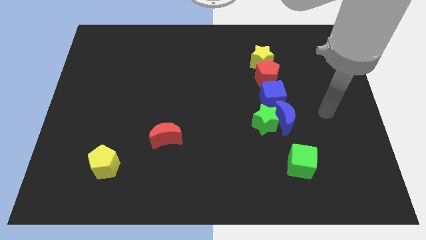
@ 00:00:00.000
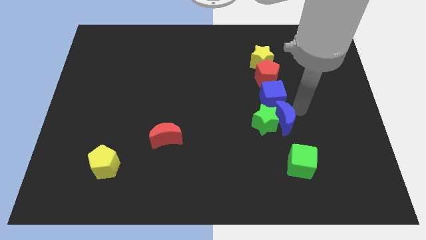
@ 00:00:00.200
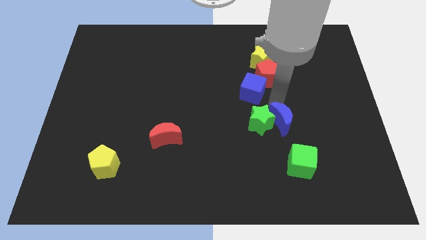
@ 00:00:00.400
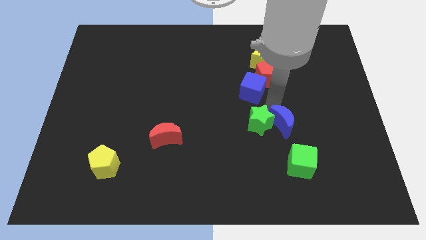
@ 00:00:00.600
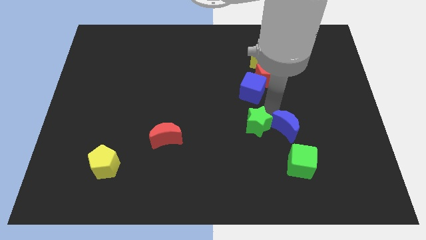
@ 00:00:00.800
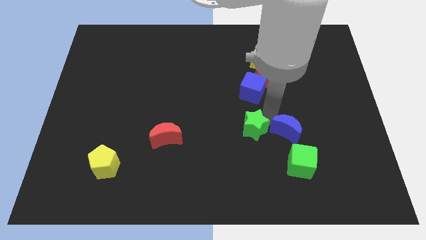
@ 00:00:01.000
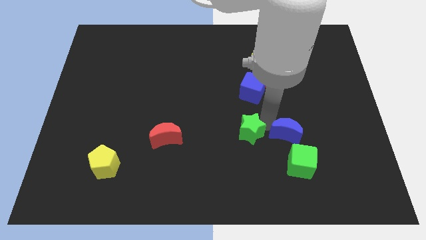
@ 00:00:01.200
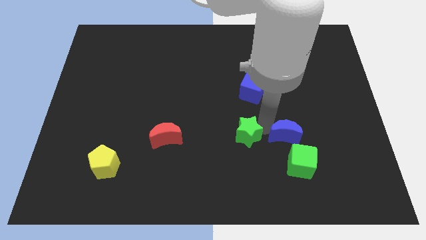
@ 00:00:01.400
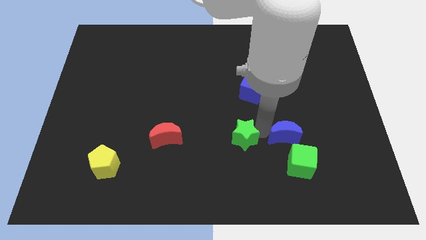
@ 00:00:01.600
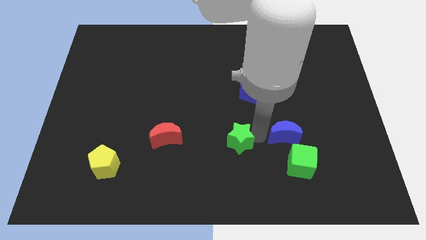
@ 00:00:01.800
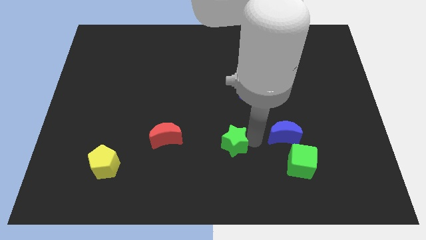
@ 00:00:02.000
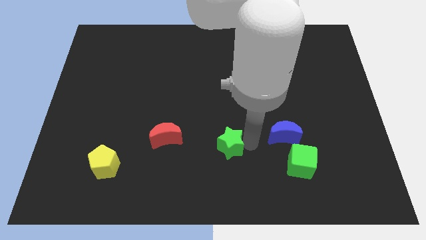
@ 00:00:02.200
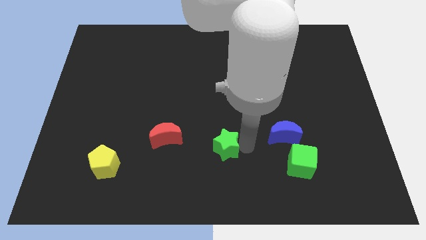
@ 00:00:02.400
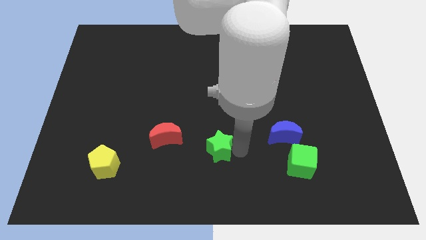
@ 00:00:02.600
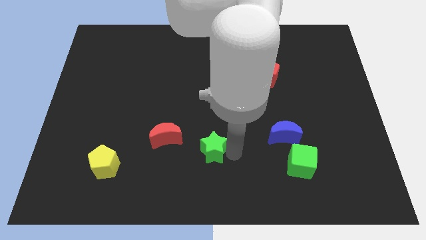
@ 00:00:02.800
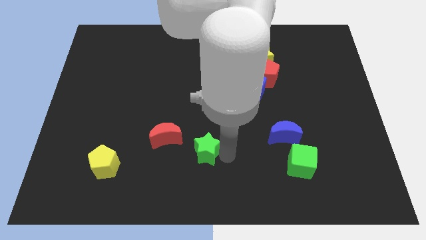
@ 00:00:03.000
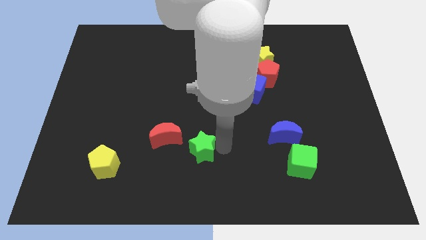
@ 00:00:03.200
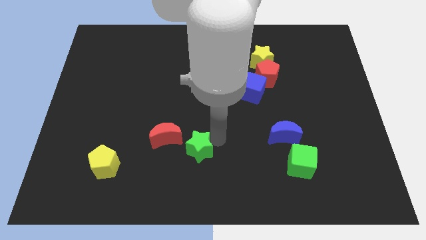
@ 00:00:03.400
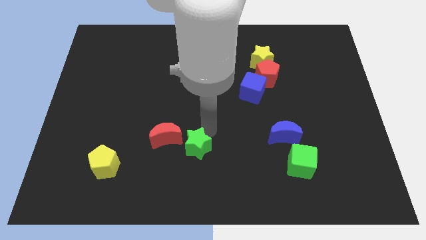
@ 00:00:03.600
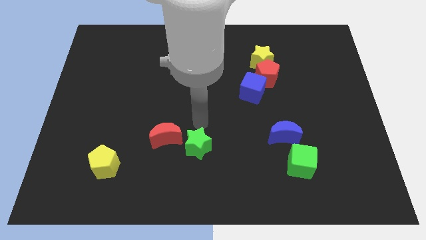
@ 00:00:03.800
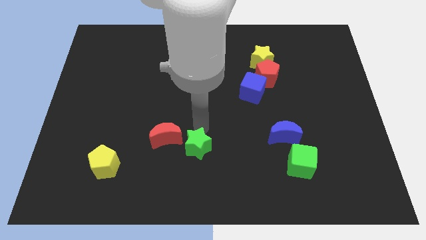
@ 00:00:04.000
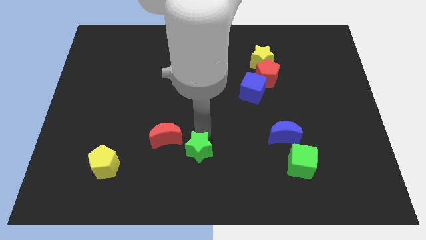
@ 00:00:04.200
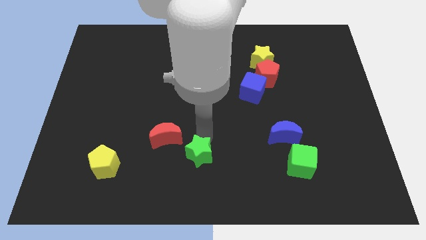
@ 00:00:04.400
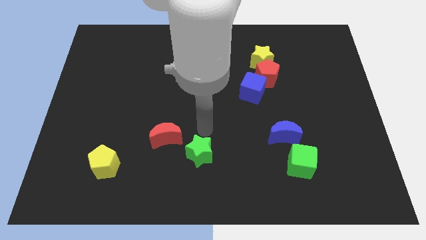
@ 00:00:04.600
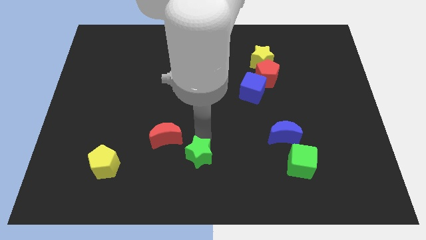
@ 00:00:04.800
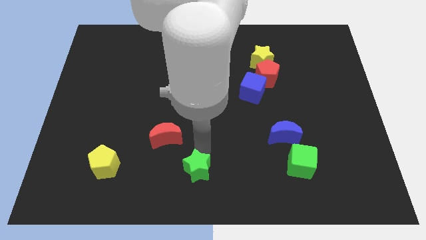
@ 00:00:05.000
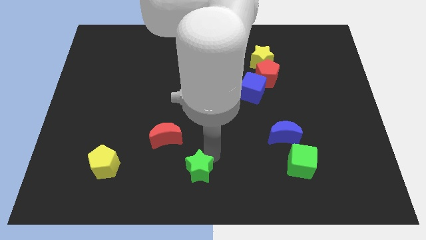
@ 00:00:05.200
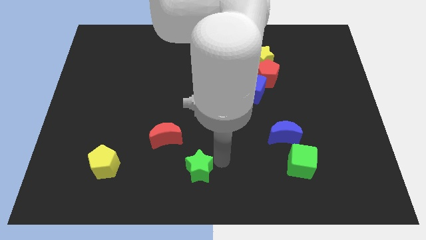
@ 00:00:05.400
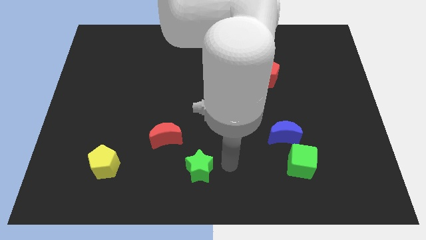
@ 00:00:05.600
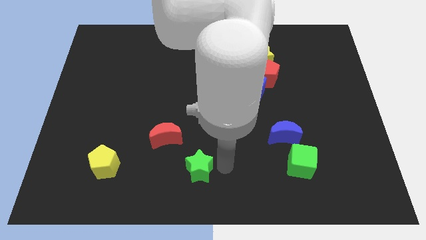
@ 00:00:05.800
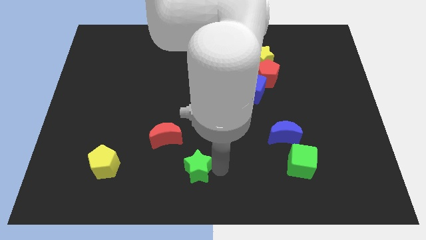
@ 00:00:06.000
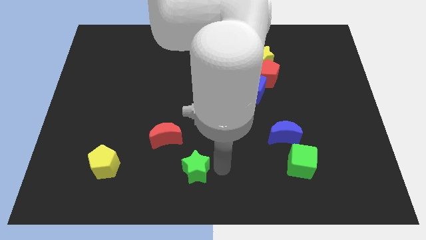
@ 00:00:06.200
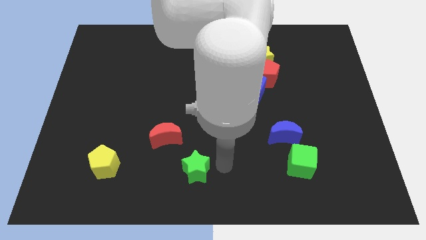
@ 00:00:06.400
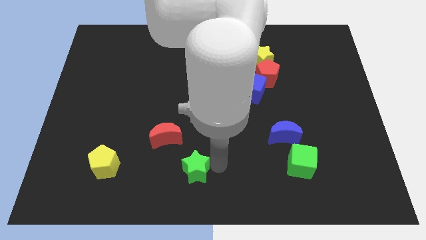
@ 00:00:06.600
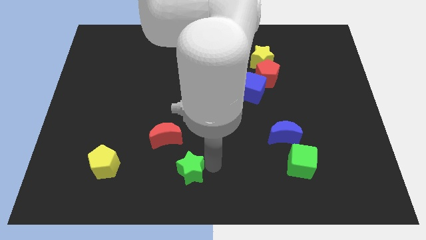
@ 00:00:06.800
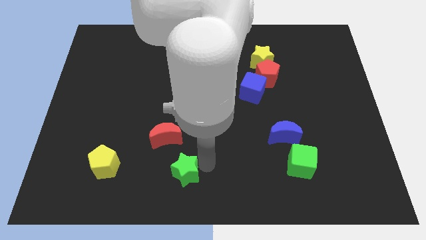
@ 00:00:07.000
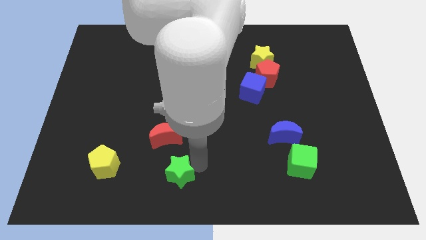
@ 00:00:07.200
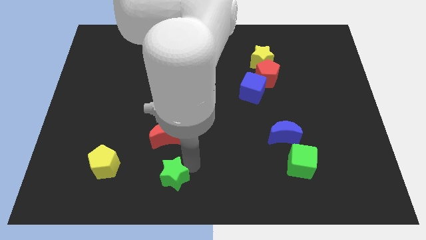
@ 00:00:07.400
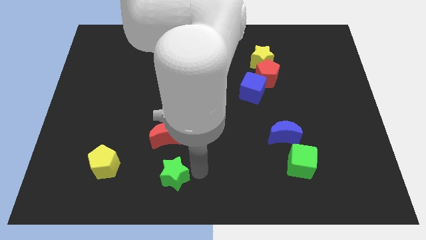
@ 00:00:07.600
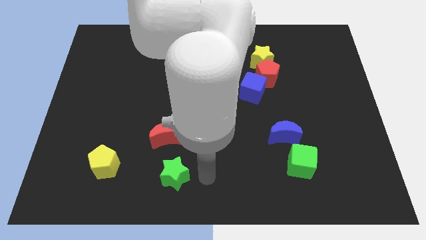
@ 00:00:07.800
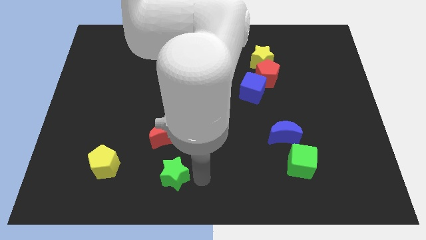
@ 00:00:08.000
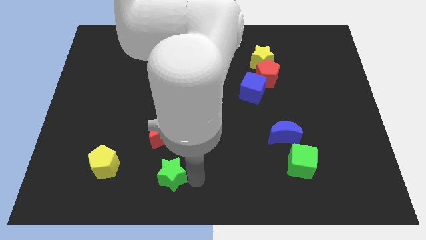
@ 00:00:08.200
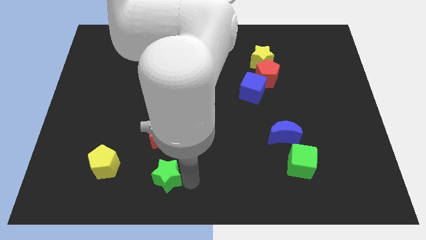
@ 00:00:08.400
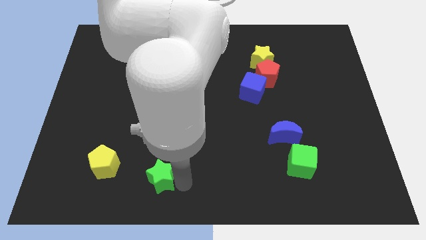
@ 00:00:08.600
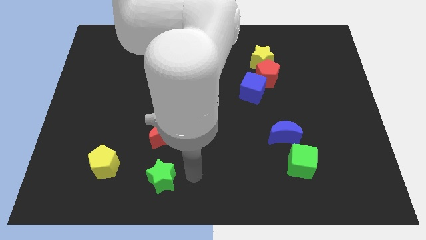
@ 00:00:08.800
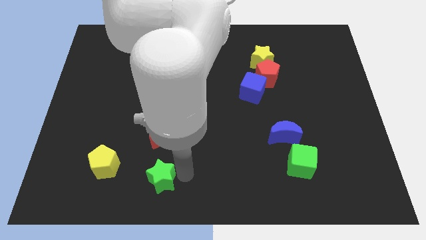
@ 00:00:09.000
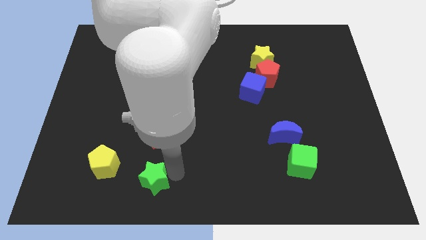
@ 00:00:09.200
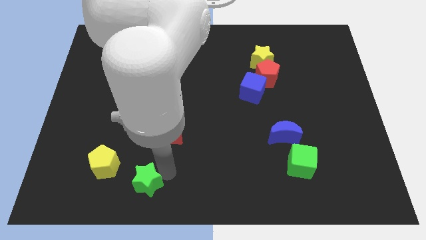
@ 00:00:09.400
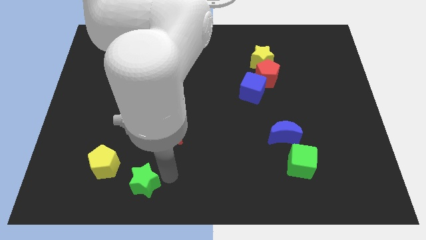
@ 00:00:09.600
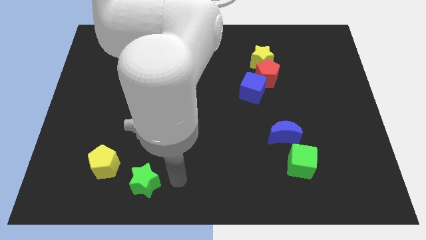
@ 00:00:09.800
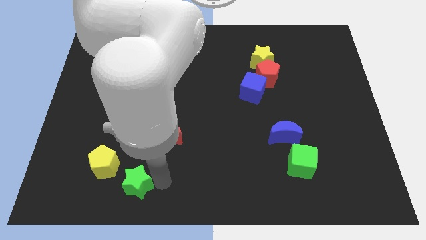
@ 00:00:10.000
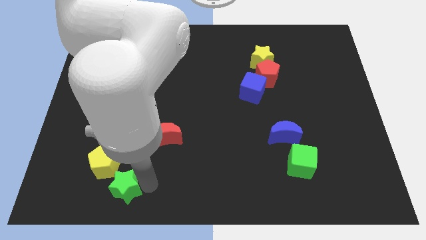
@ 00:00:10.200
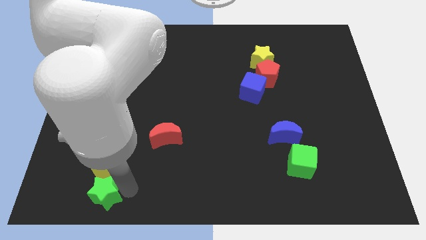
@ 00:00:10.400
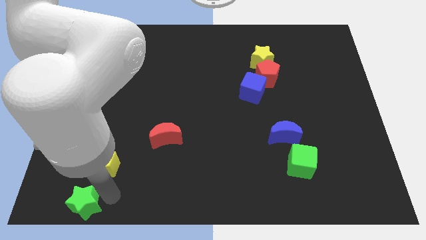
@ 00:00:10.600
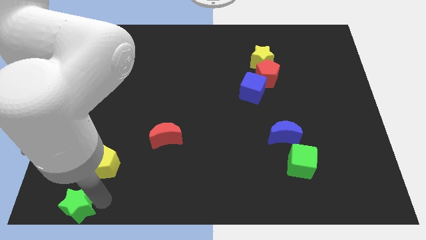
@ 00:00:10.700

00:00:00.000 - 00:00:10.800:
move the green star to the bottom left of the board

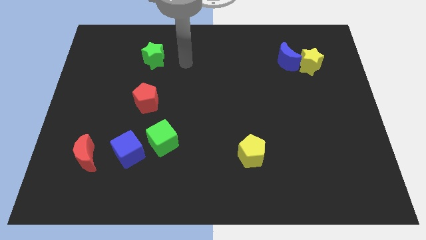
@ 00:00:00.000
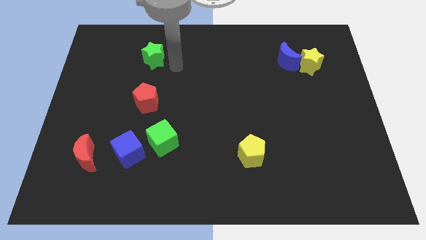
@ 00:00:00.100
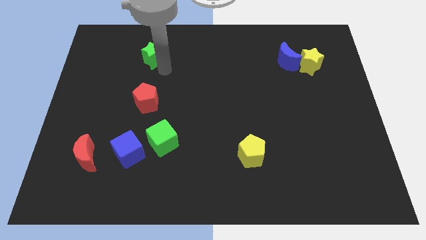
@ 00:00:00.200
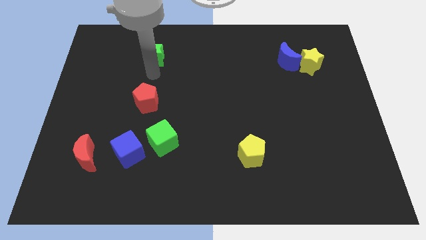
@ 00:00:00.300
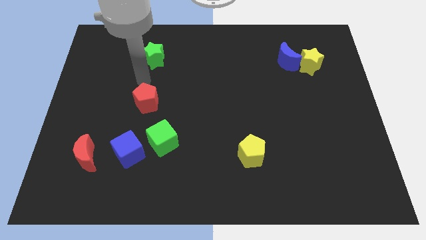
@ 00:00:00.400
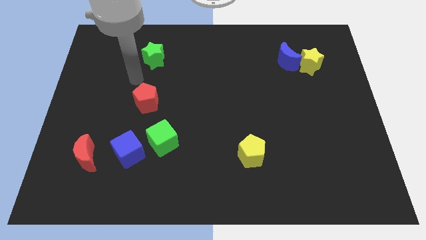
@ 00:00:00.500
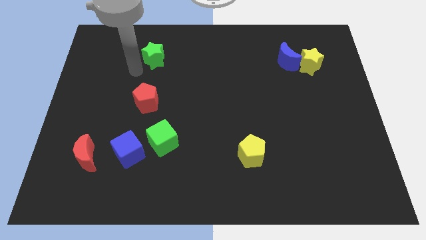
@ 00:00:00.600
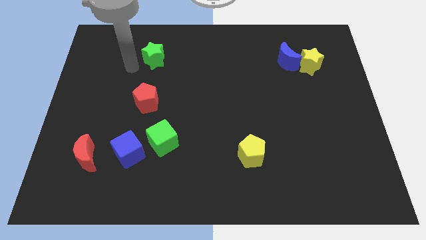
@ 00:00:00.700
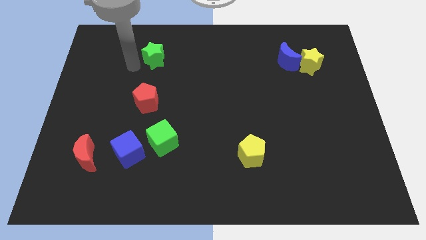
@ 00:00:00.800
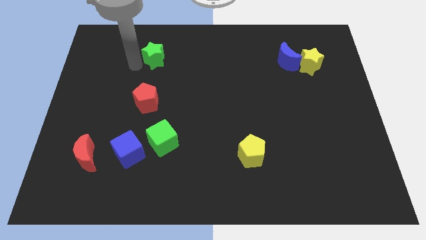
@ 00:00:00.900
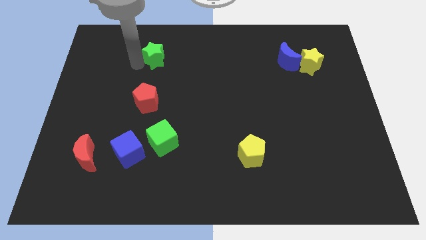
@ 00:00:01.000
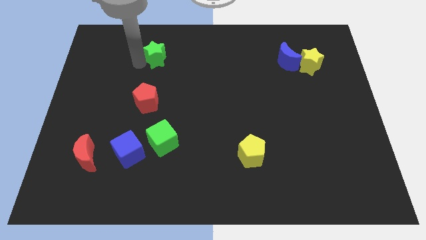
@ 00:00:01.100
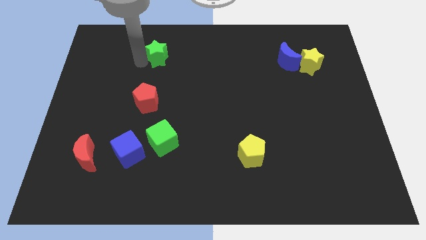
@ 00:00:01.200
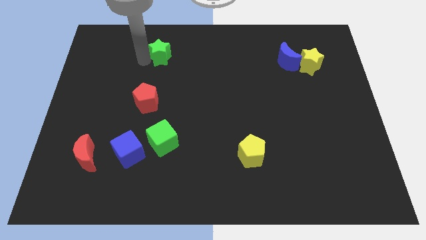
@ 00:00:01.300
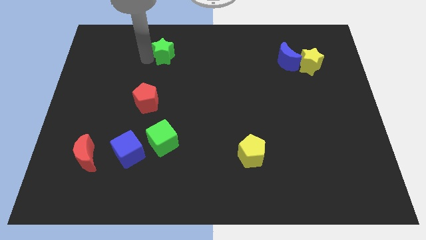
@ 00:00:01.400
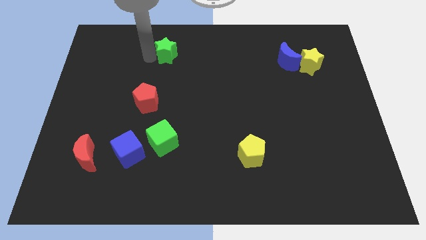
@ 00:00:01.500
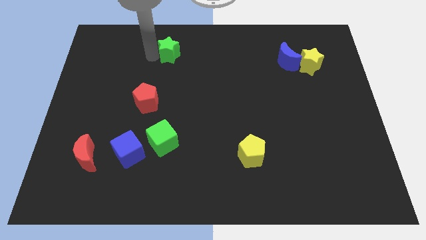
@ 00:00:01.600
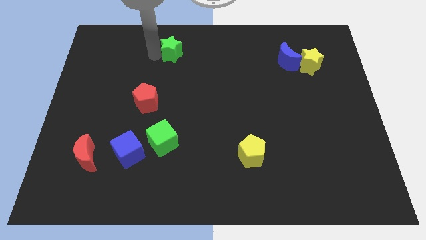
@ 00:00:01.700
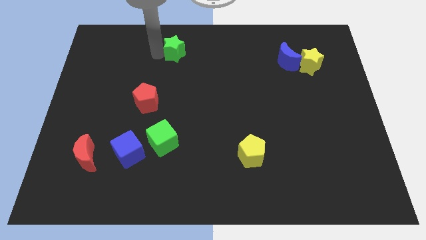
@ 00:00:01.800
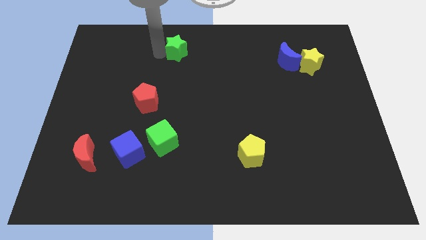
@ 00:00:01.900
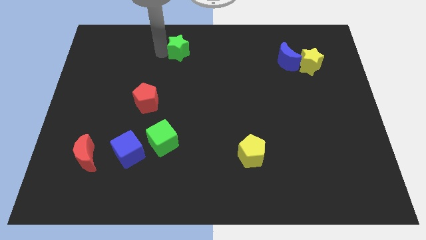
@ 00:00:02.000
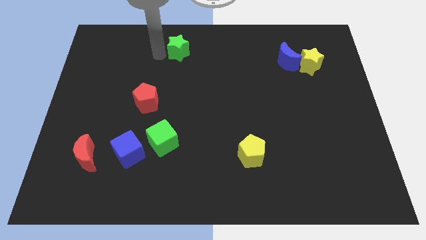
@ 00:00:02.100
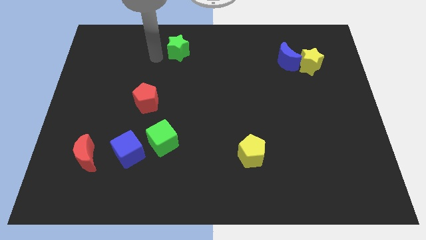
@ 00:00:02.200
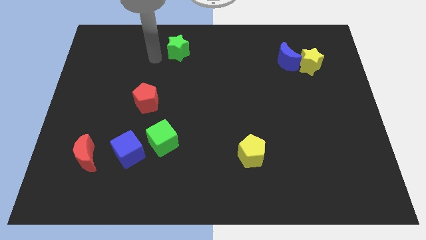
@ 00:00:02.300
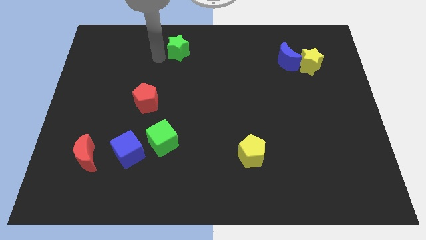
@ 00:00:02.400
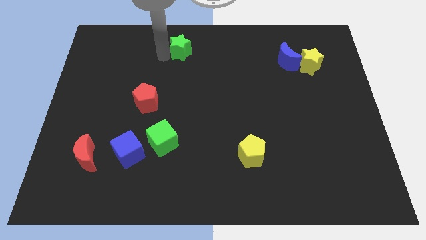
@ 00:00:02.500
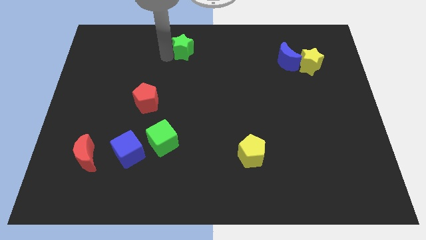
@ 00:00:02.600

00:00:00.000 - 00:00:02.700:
put the green star to the towards your base
